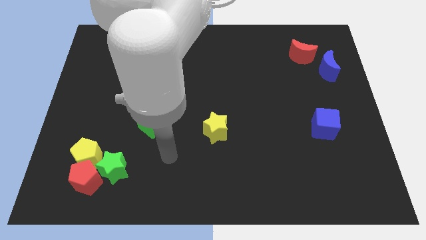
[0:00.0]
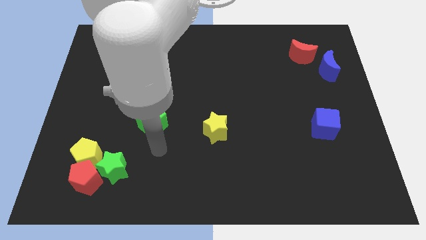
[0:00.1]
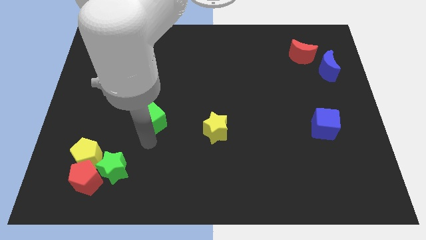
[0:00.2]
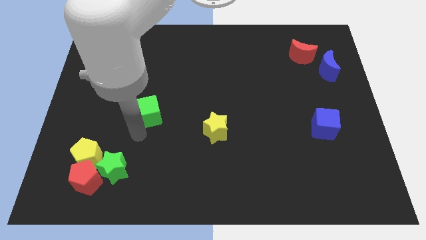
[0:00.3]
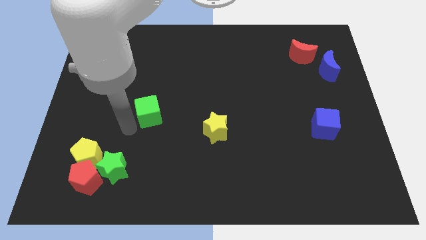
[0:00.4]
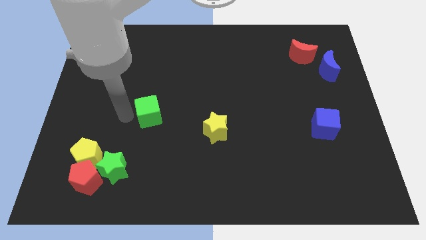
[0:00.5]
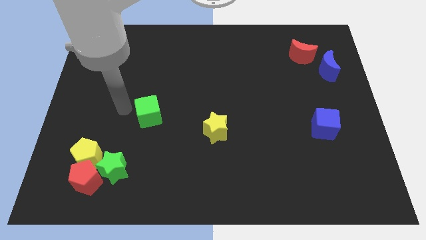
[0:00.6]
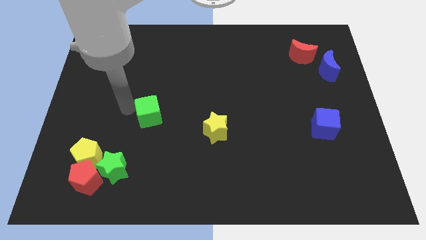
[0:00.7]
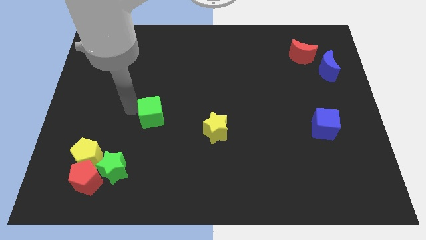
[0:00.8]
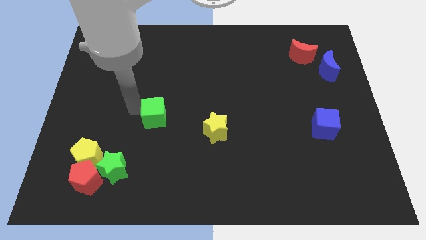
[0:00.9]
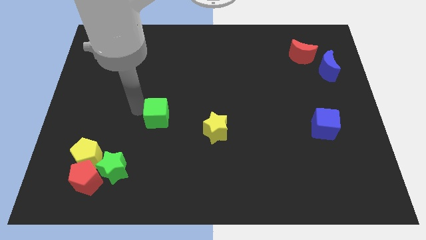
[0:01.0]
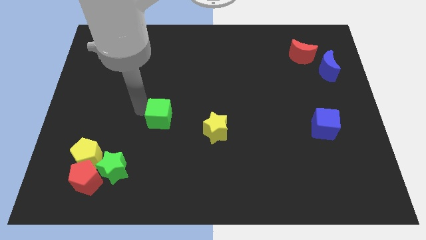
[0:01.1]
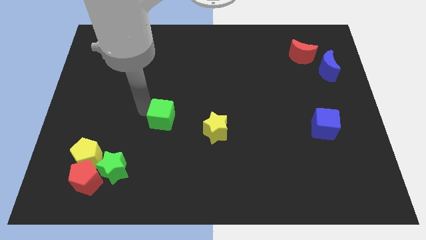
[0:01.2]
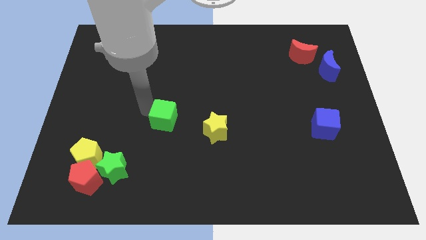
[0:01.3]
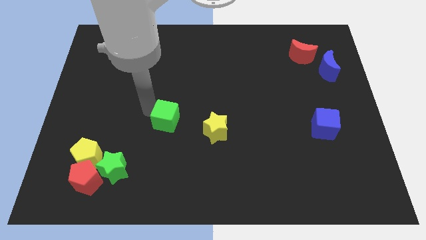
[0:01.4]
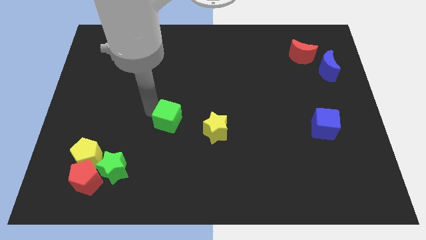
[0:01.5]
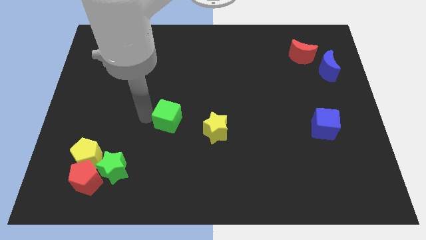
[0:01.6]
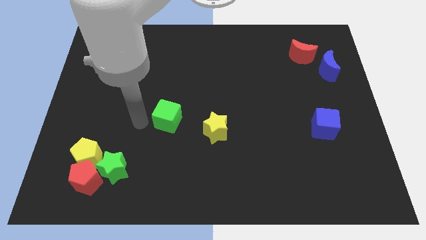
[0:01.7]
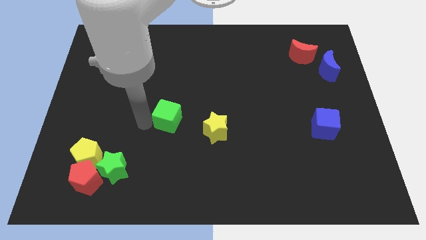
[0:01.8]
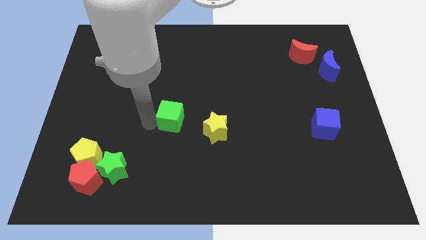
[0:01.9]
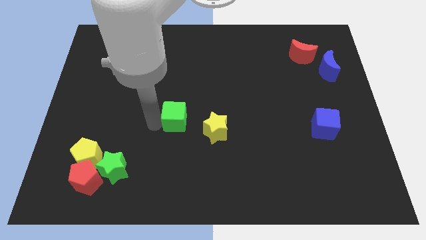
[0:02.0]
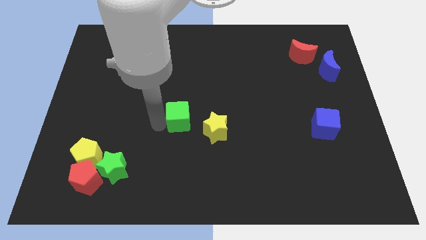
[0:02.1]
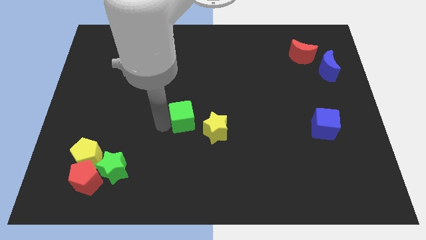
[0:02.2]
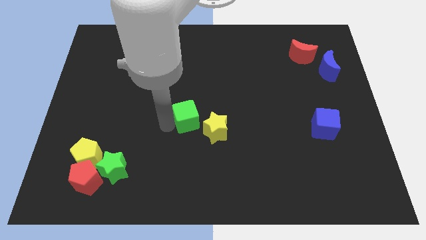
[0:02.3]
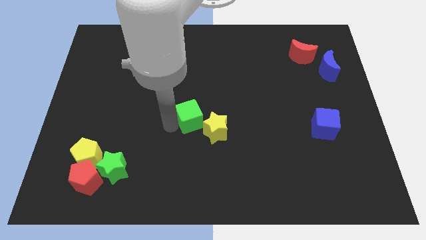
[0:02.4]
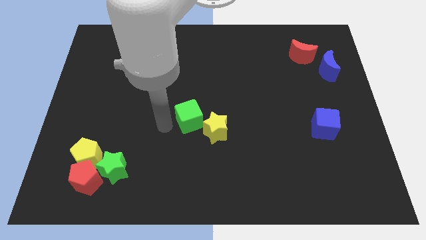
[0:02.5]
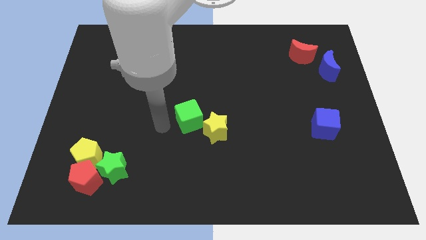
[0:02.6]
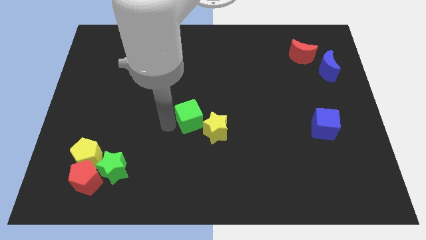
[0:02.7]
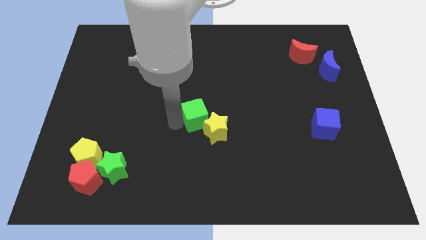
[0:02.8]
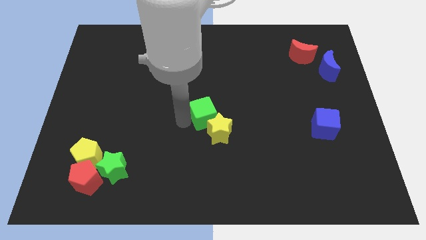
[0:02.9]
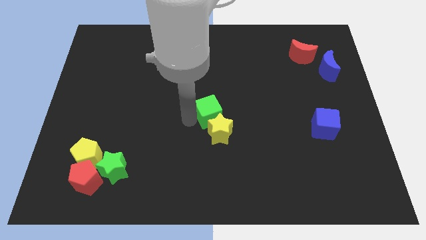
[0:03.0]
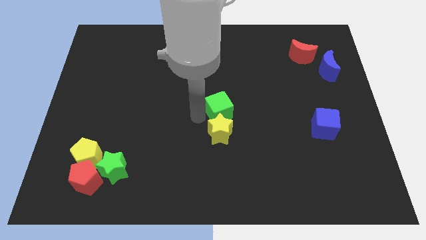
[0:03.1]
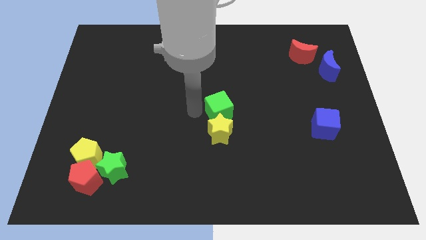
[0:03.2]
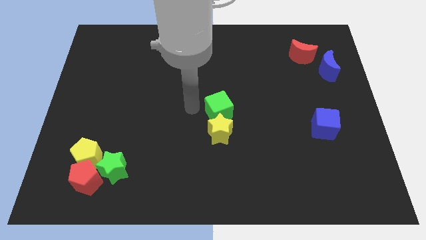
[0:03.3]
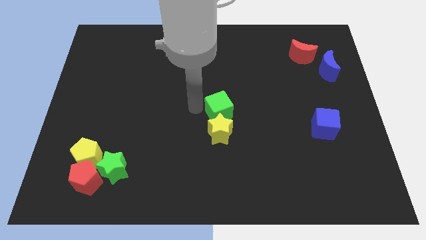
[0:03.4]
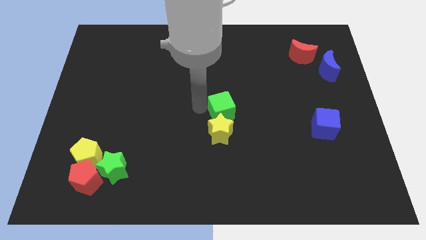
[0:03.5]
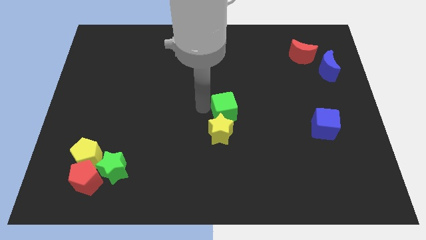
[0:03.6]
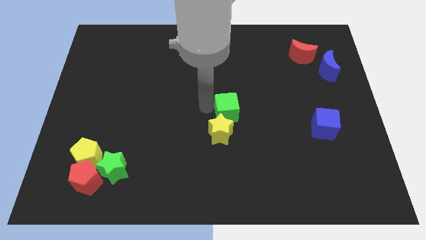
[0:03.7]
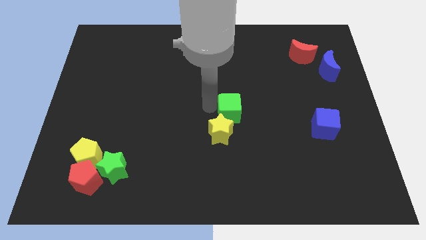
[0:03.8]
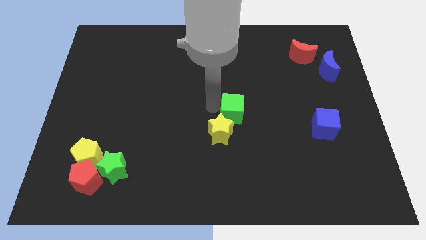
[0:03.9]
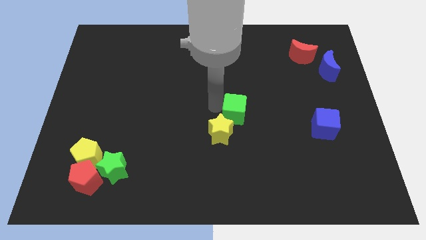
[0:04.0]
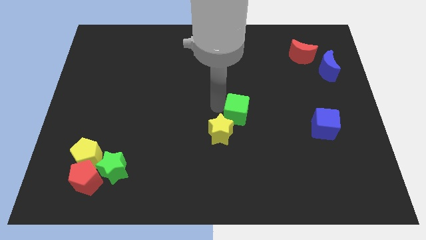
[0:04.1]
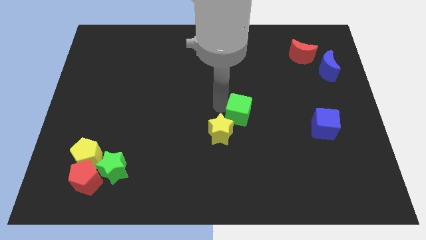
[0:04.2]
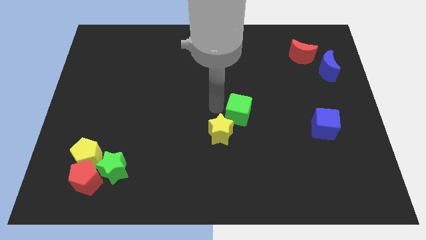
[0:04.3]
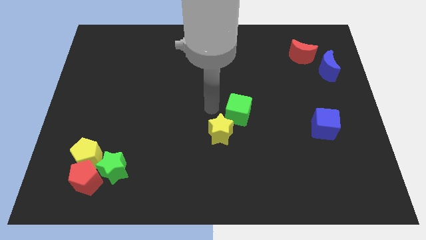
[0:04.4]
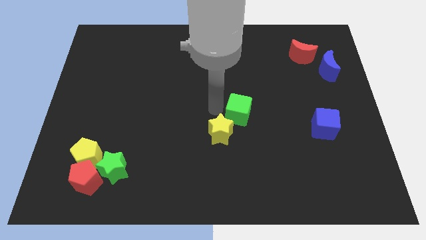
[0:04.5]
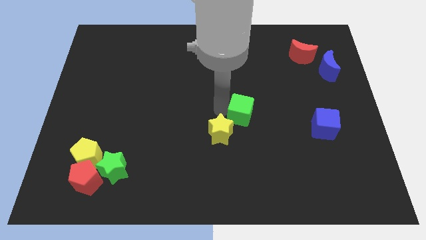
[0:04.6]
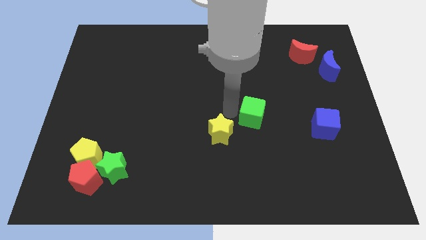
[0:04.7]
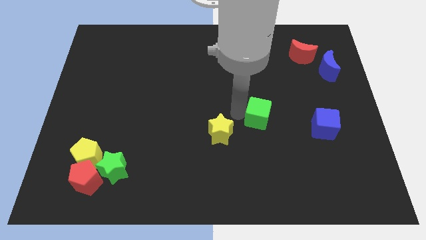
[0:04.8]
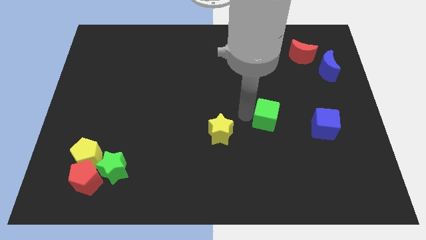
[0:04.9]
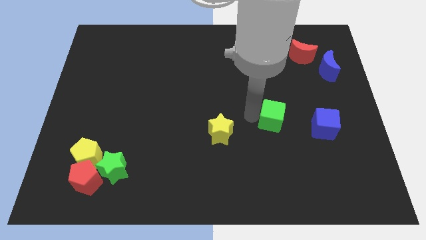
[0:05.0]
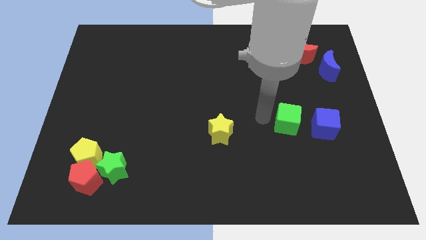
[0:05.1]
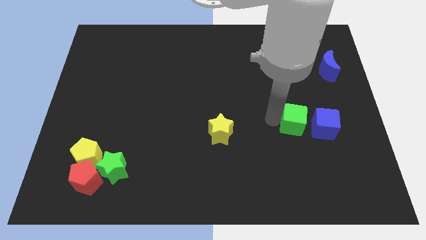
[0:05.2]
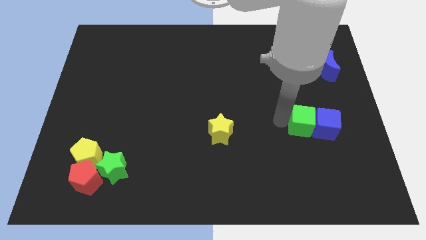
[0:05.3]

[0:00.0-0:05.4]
put the green cube close to the blue cube

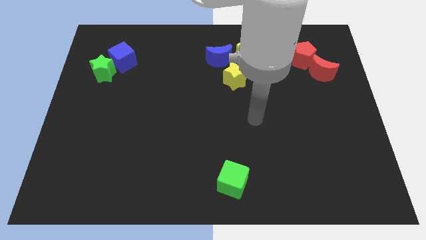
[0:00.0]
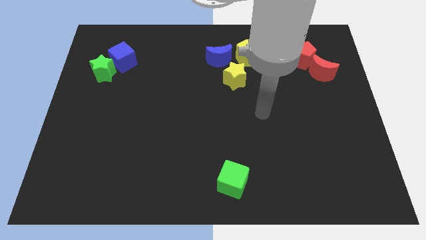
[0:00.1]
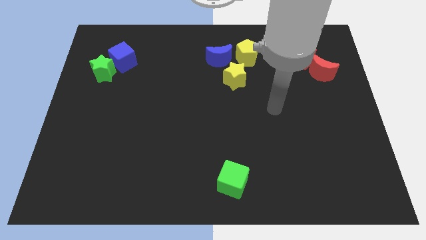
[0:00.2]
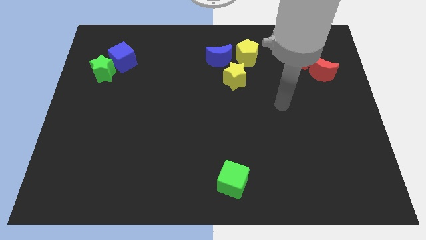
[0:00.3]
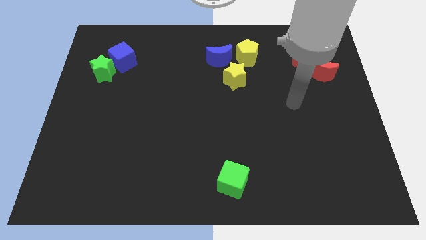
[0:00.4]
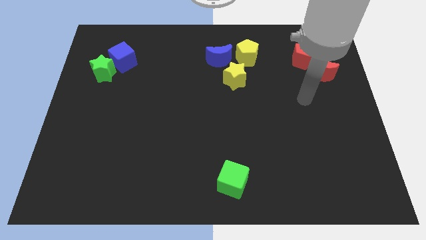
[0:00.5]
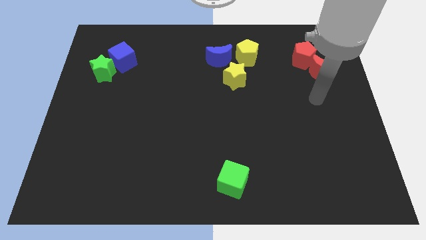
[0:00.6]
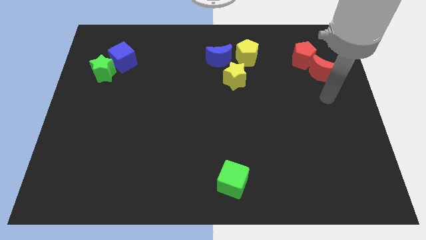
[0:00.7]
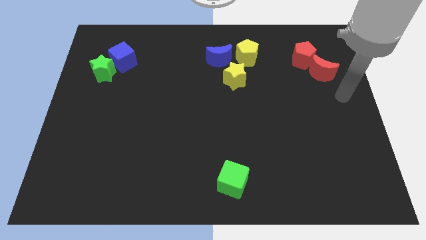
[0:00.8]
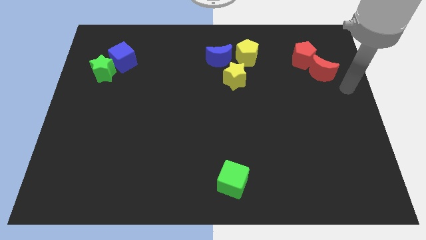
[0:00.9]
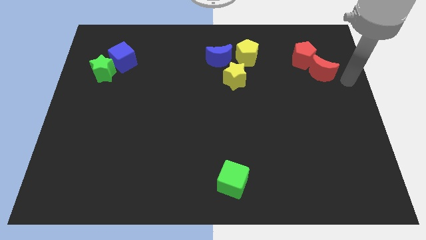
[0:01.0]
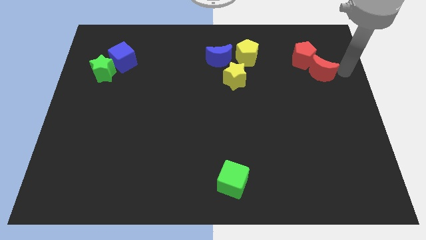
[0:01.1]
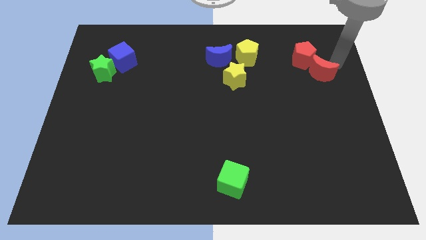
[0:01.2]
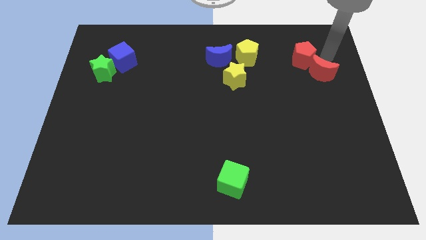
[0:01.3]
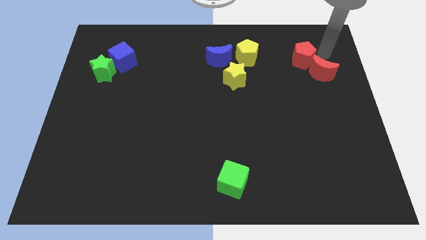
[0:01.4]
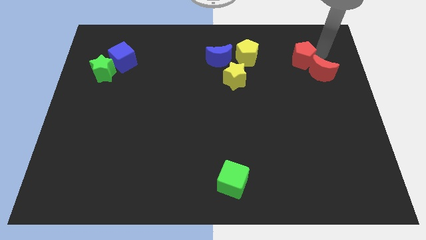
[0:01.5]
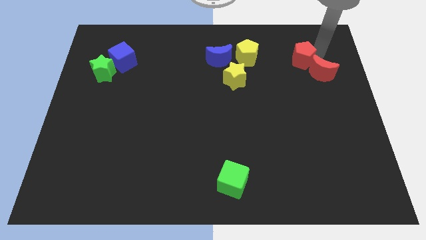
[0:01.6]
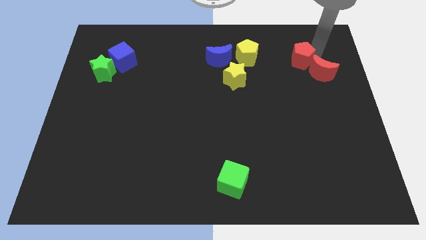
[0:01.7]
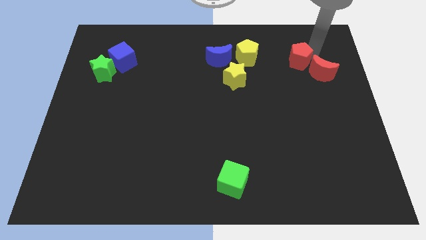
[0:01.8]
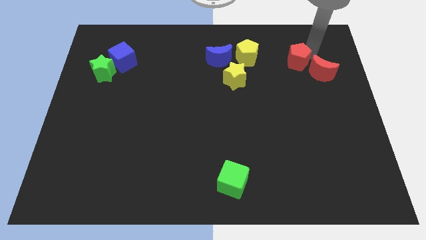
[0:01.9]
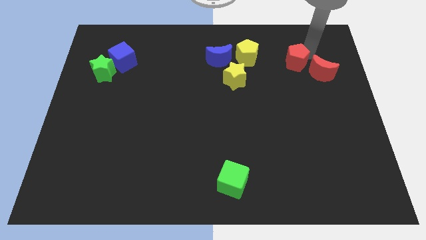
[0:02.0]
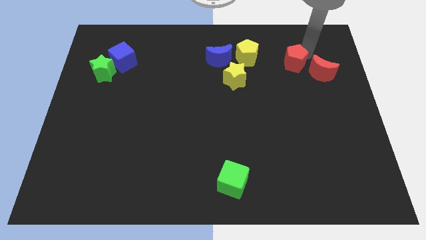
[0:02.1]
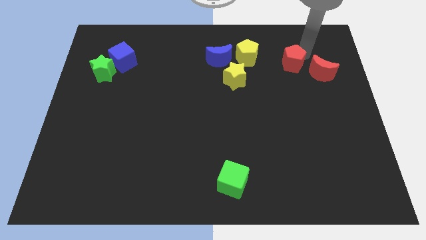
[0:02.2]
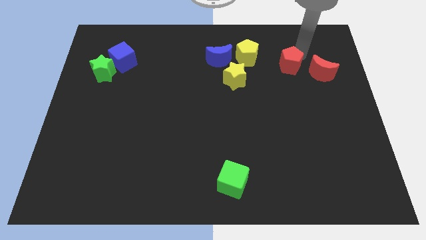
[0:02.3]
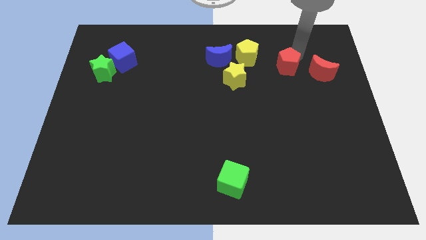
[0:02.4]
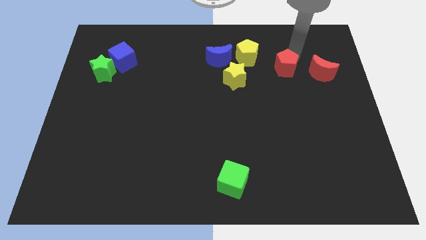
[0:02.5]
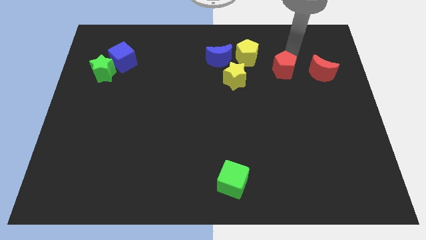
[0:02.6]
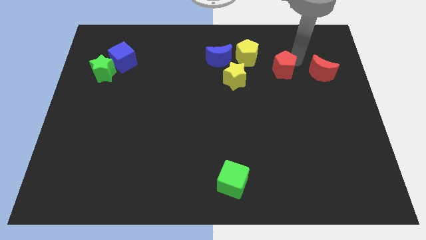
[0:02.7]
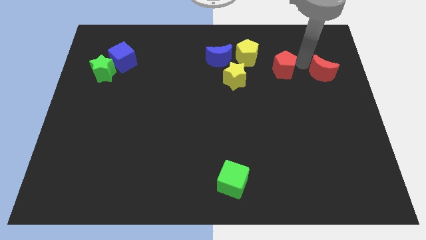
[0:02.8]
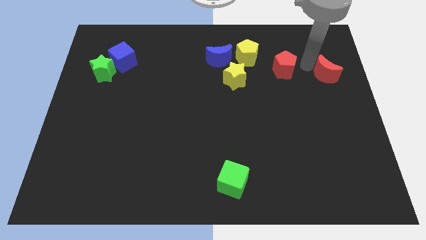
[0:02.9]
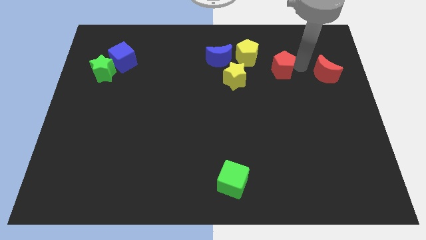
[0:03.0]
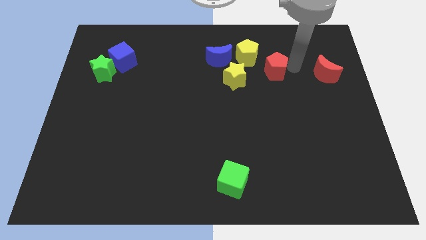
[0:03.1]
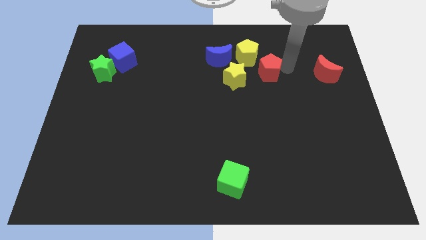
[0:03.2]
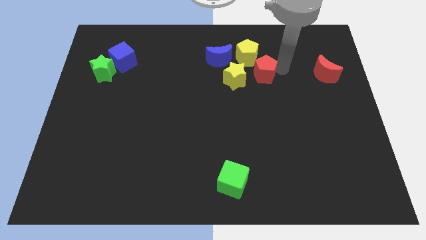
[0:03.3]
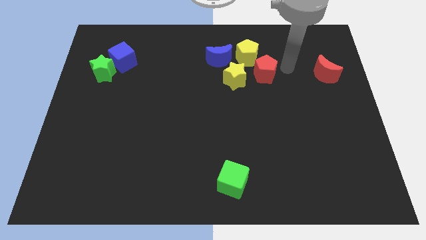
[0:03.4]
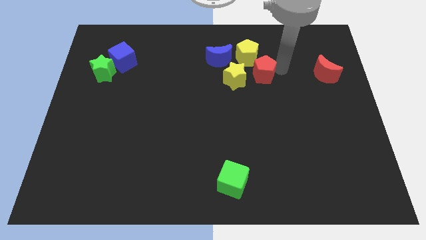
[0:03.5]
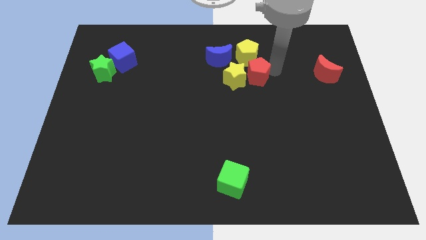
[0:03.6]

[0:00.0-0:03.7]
put the red pentagon to the yellow star
